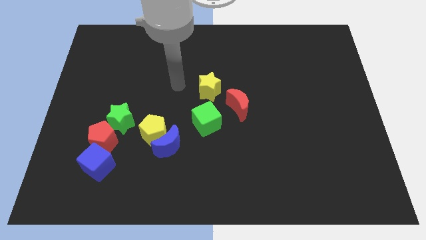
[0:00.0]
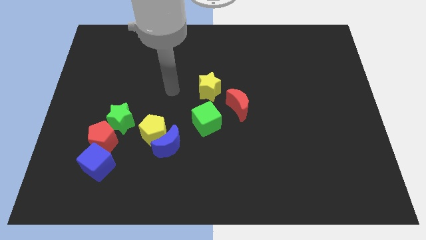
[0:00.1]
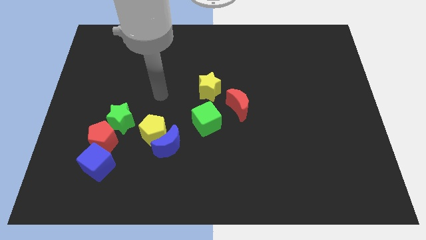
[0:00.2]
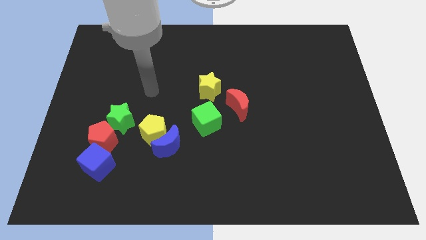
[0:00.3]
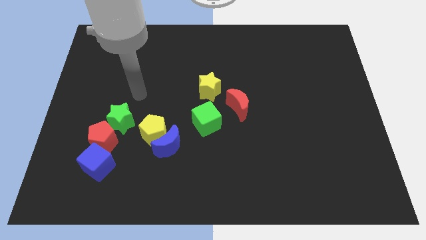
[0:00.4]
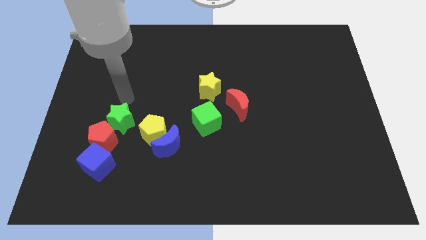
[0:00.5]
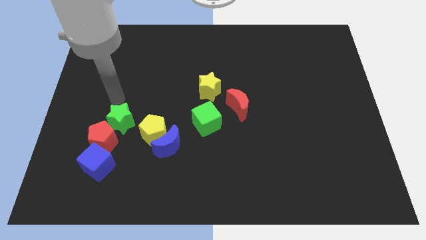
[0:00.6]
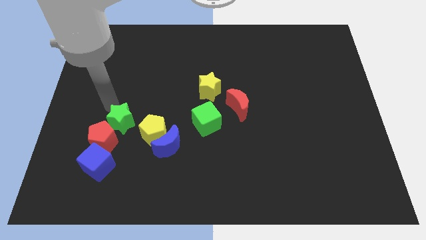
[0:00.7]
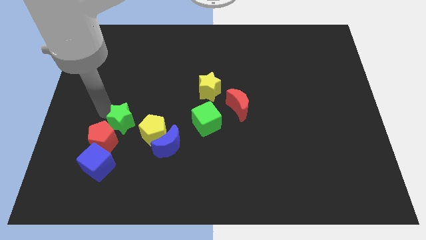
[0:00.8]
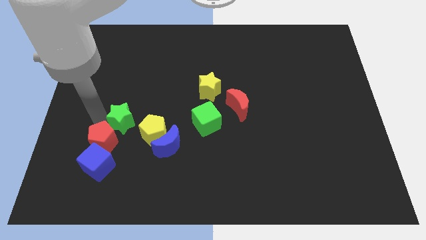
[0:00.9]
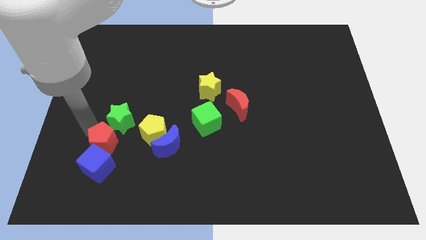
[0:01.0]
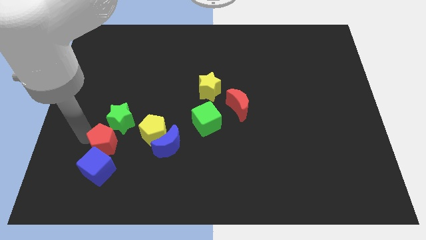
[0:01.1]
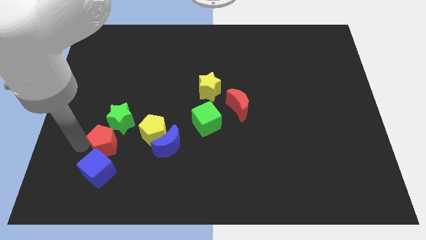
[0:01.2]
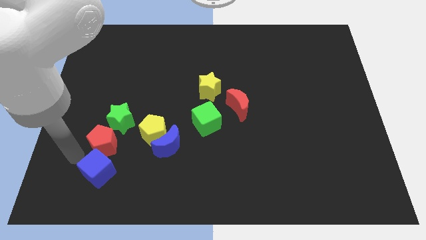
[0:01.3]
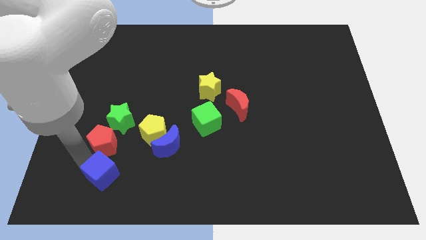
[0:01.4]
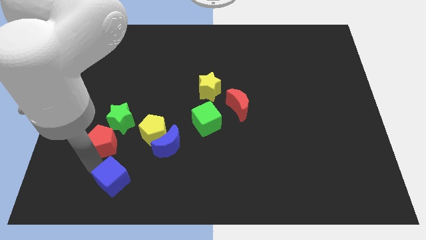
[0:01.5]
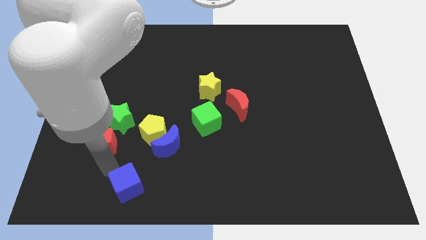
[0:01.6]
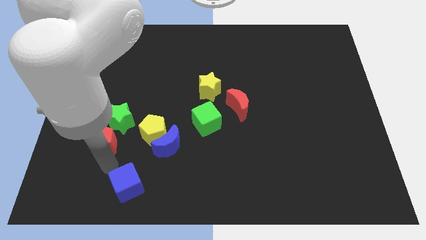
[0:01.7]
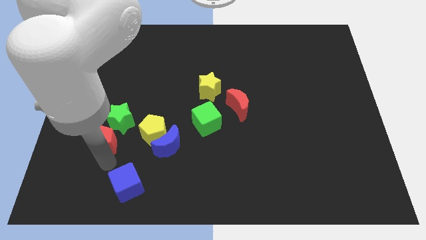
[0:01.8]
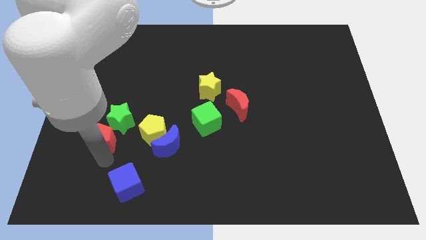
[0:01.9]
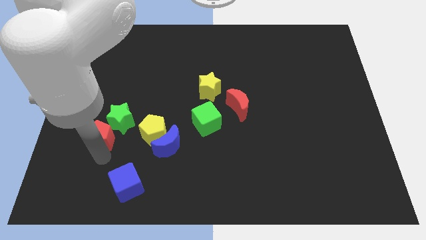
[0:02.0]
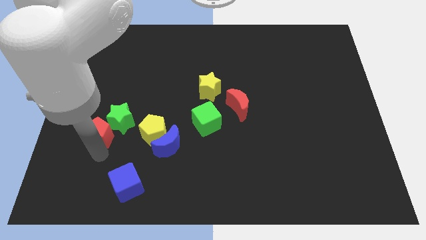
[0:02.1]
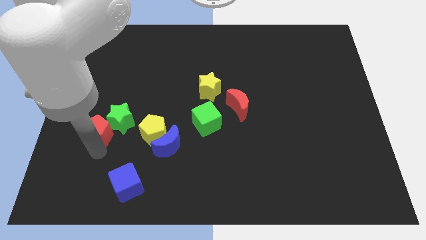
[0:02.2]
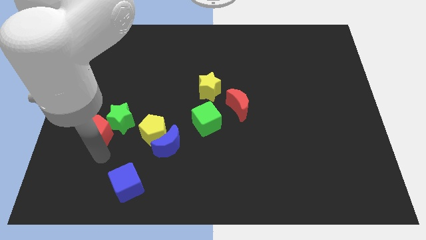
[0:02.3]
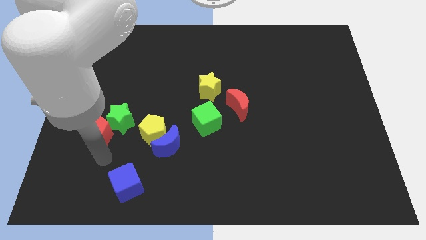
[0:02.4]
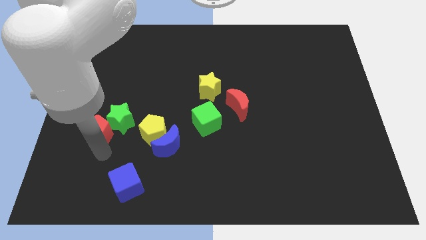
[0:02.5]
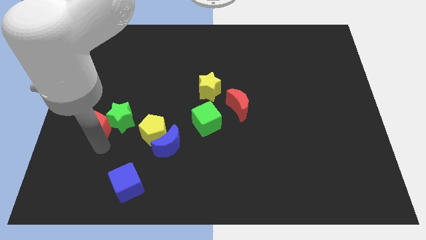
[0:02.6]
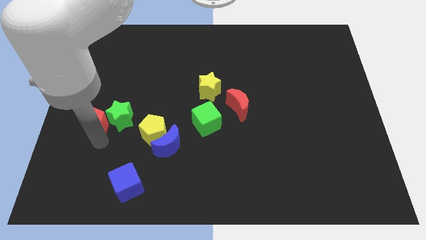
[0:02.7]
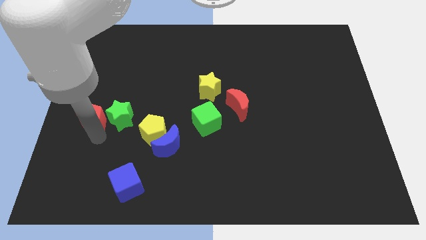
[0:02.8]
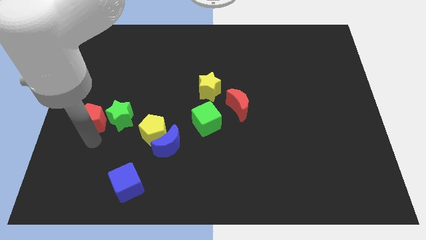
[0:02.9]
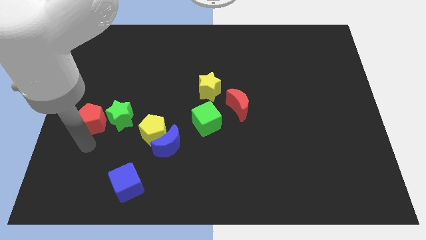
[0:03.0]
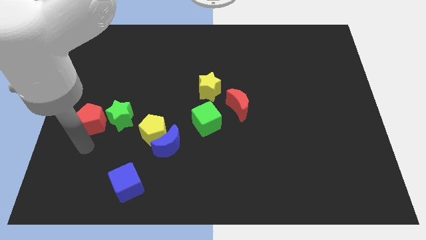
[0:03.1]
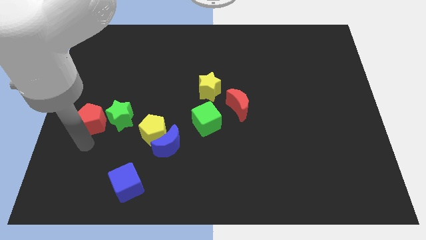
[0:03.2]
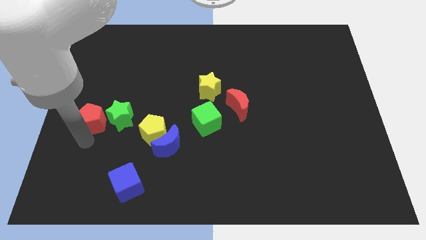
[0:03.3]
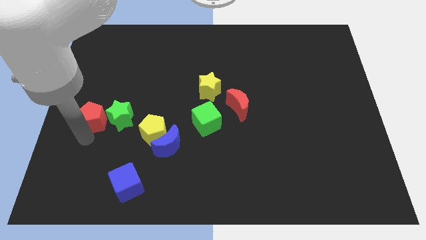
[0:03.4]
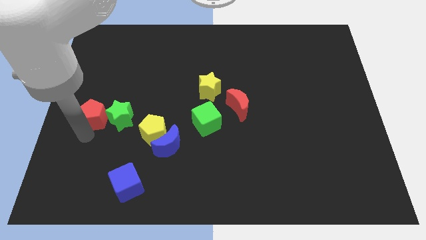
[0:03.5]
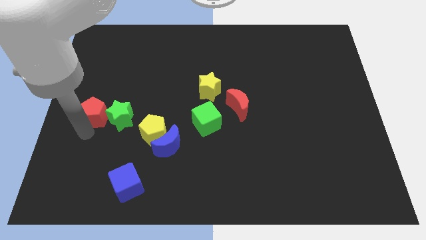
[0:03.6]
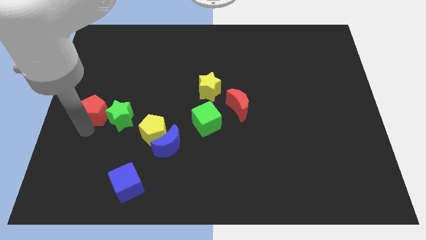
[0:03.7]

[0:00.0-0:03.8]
slightly push the red pentagon upwards

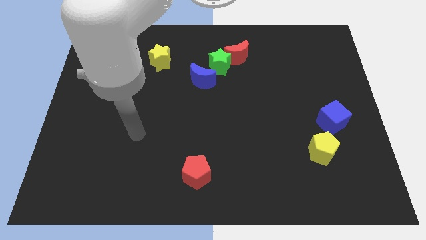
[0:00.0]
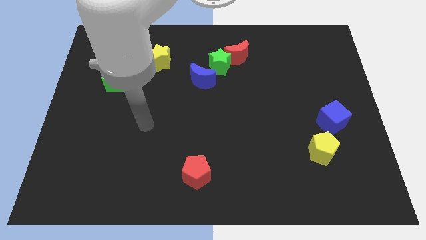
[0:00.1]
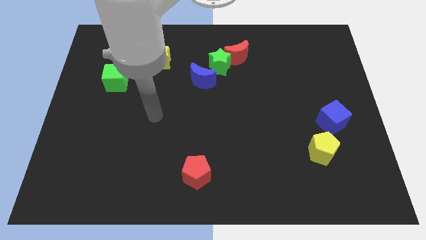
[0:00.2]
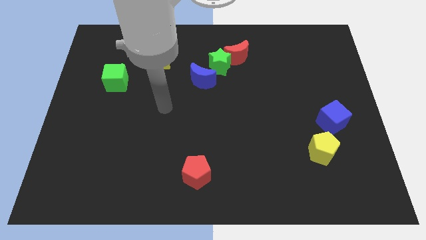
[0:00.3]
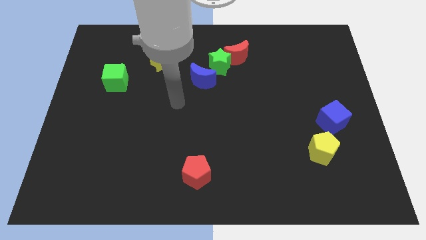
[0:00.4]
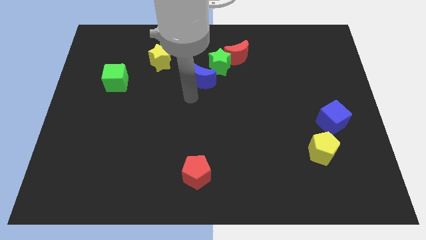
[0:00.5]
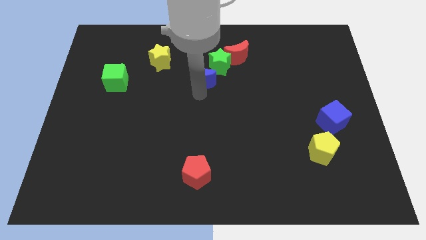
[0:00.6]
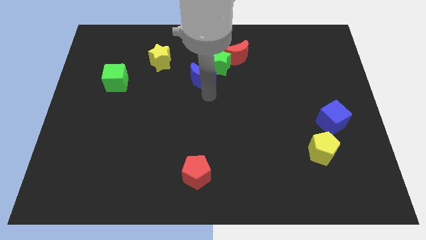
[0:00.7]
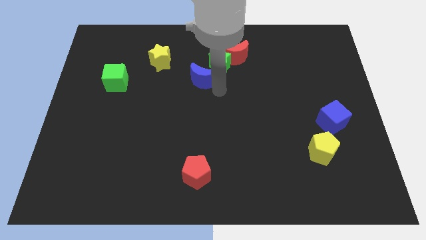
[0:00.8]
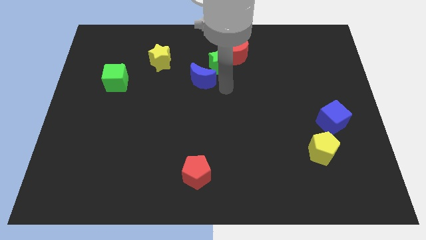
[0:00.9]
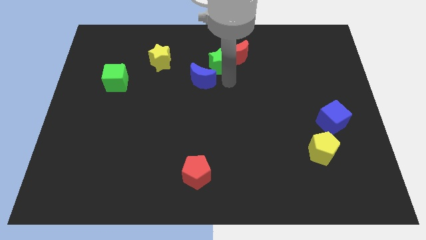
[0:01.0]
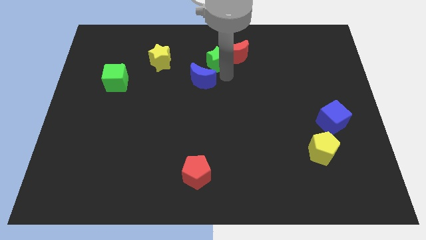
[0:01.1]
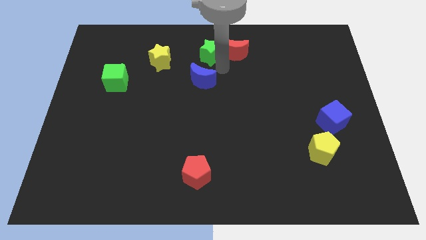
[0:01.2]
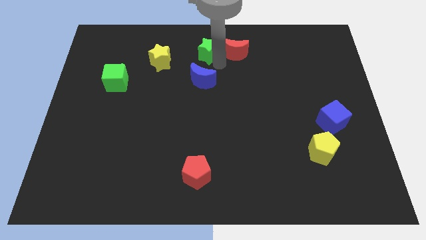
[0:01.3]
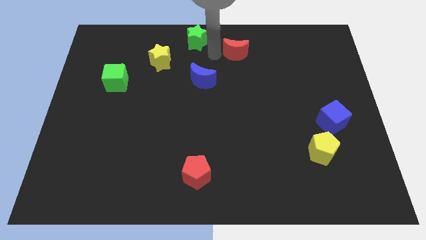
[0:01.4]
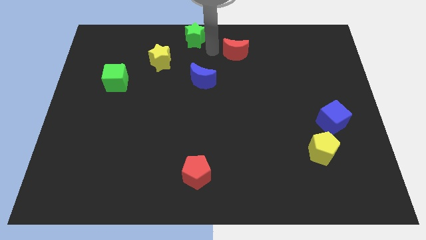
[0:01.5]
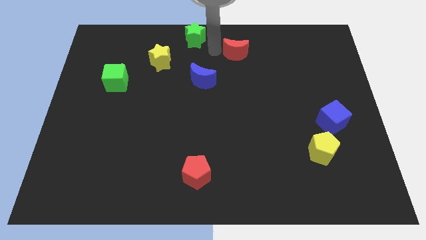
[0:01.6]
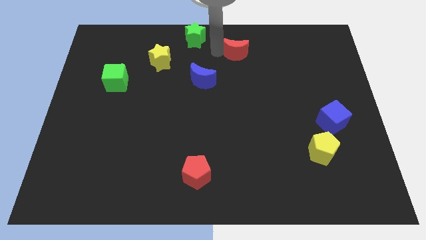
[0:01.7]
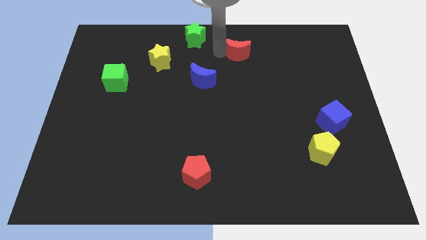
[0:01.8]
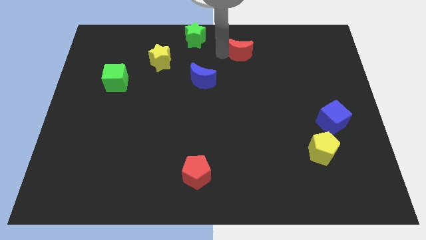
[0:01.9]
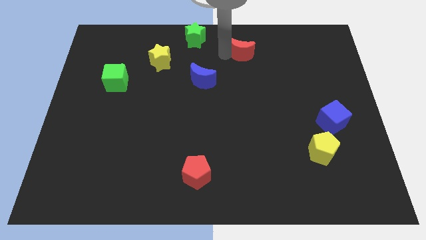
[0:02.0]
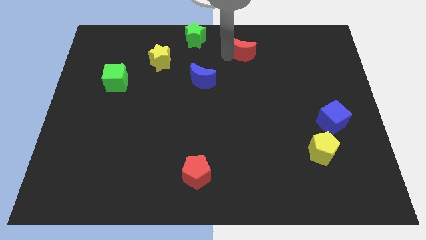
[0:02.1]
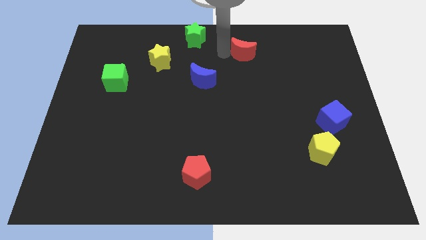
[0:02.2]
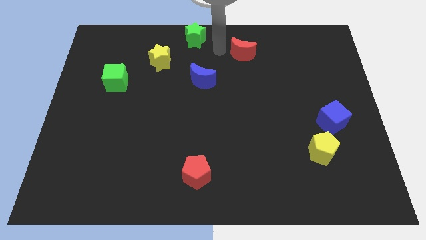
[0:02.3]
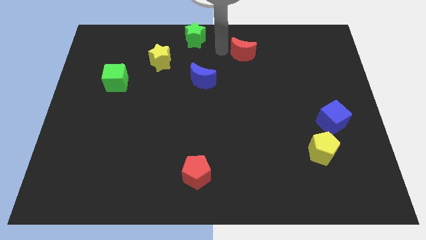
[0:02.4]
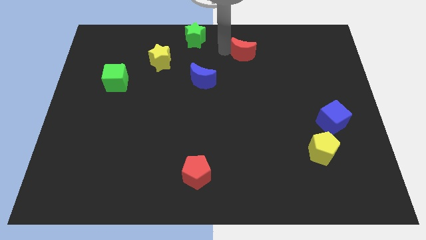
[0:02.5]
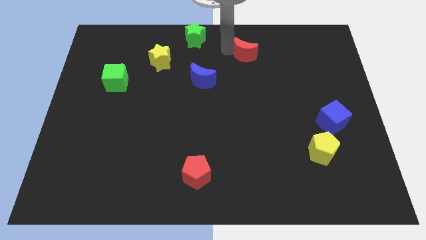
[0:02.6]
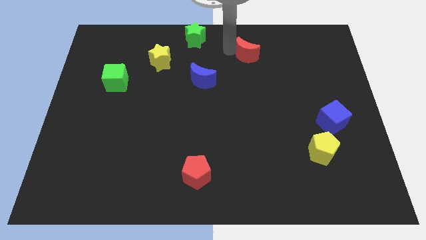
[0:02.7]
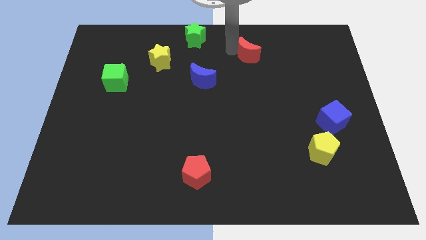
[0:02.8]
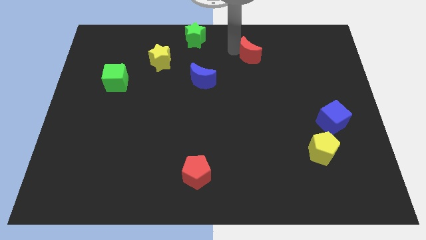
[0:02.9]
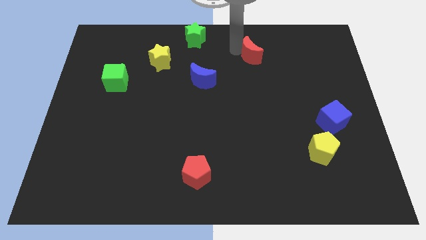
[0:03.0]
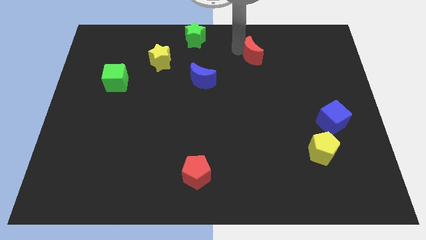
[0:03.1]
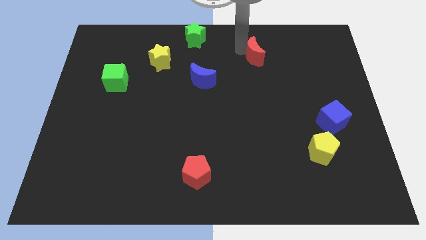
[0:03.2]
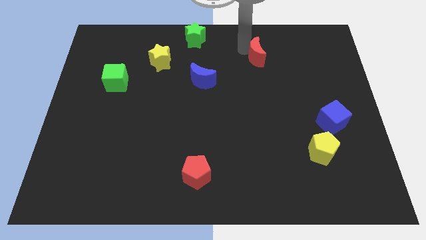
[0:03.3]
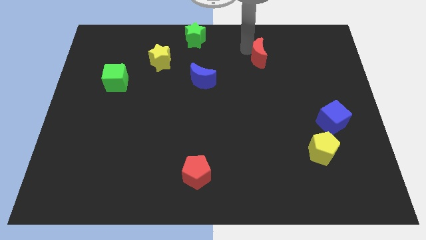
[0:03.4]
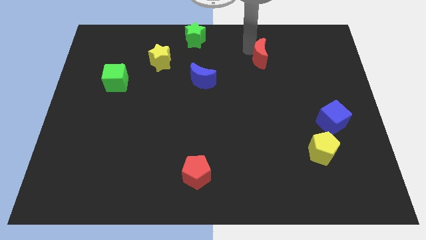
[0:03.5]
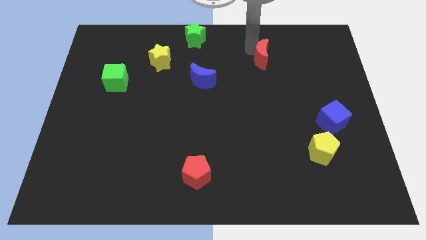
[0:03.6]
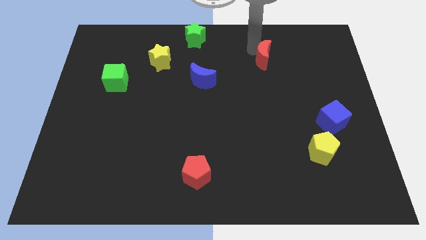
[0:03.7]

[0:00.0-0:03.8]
move the red moon somewhat right
